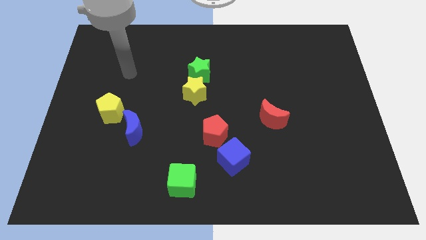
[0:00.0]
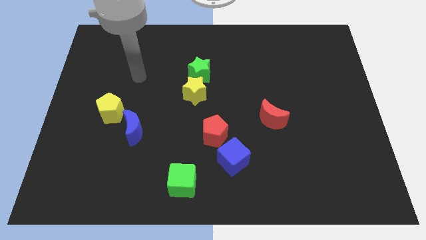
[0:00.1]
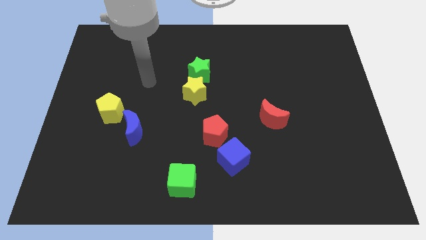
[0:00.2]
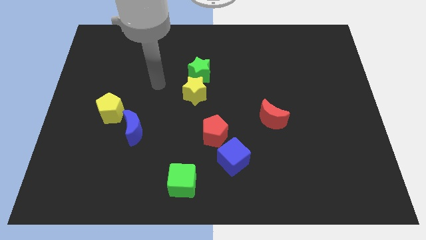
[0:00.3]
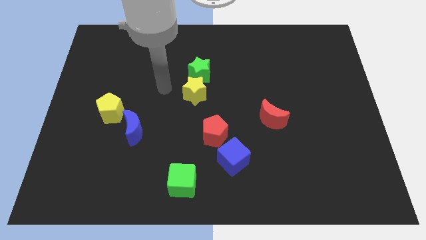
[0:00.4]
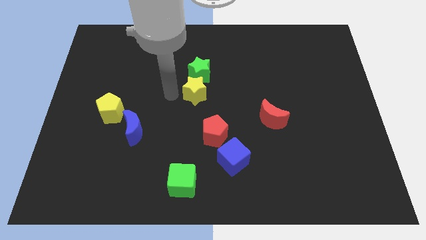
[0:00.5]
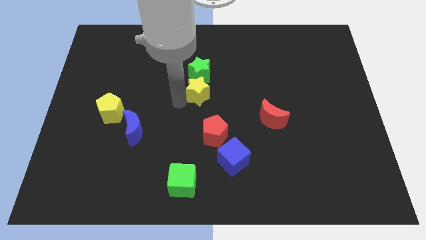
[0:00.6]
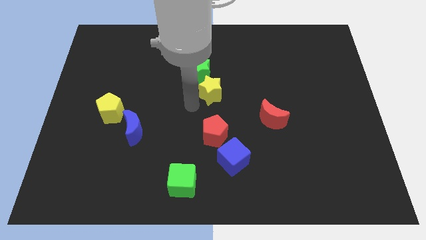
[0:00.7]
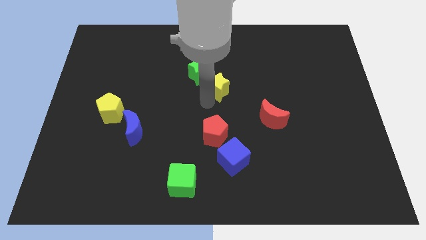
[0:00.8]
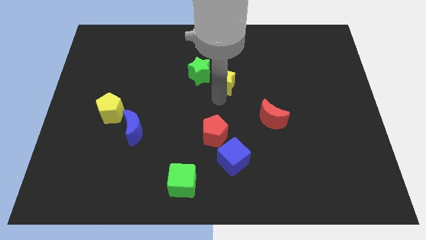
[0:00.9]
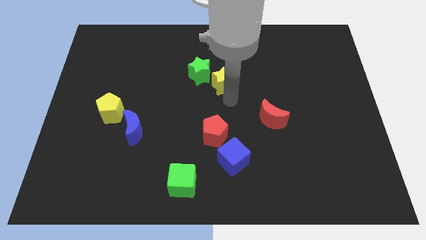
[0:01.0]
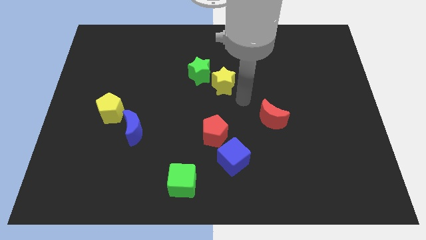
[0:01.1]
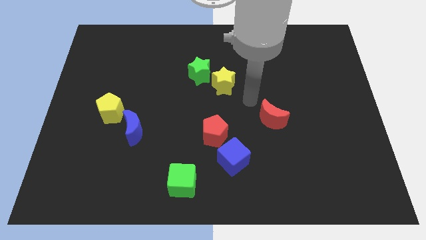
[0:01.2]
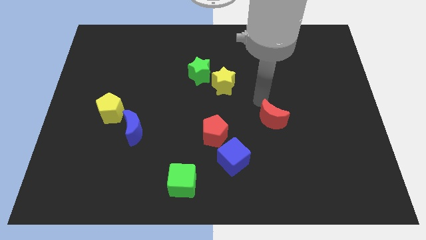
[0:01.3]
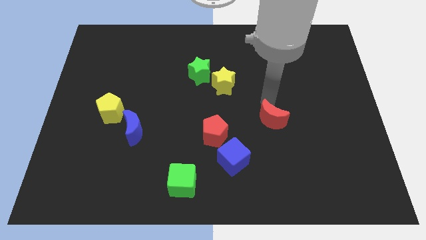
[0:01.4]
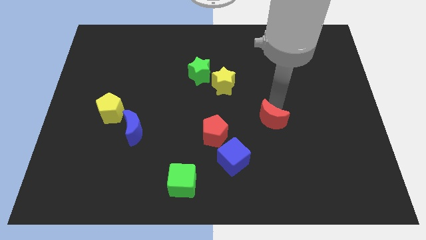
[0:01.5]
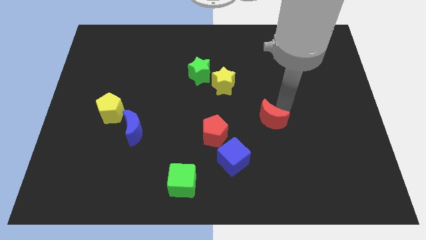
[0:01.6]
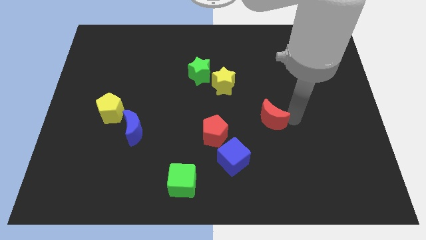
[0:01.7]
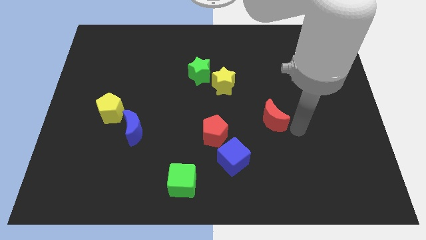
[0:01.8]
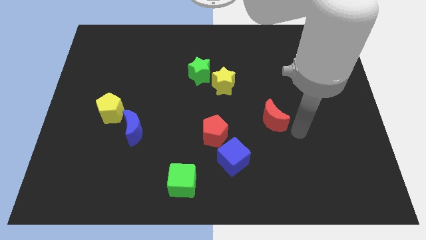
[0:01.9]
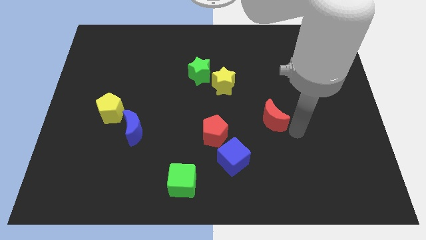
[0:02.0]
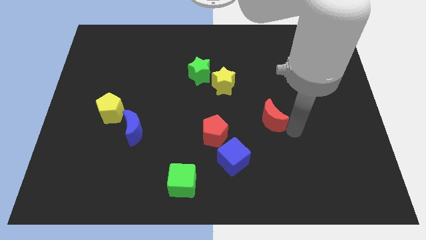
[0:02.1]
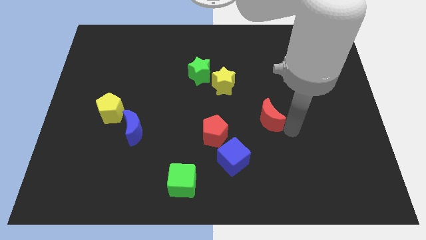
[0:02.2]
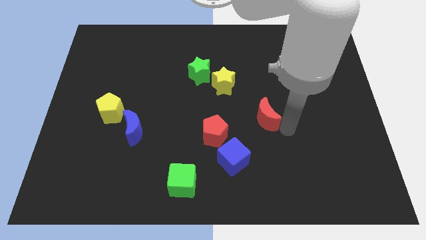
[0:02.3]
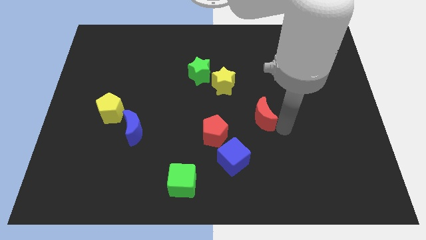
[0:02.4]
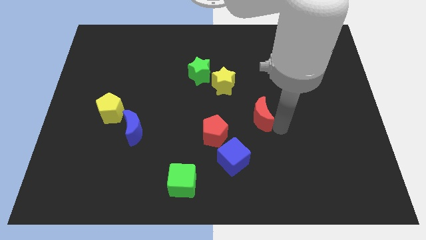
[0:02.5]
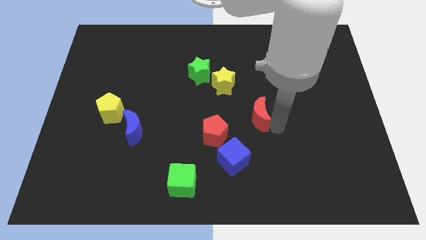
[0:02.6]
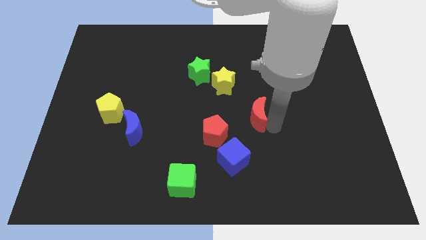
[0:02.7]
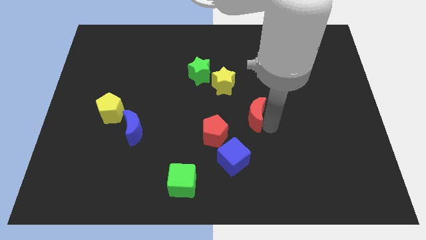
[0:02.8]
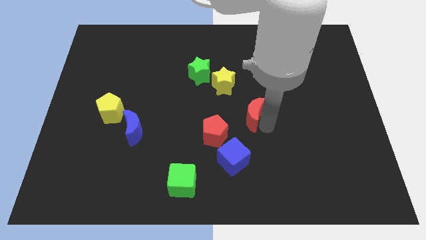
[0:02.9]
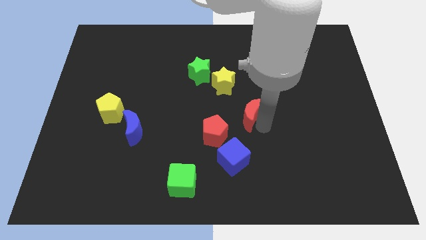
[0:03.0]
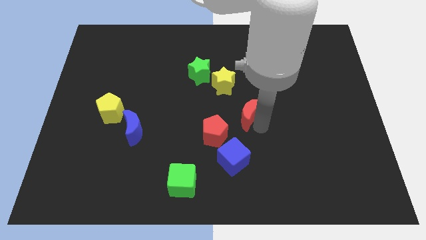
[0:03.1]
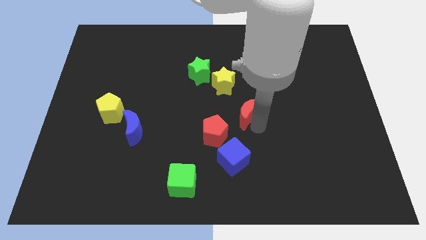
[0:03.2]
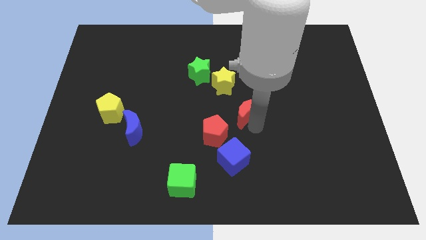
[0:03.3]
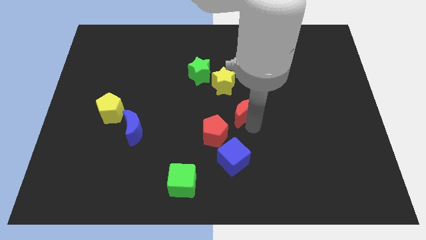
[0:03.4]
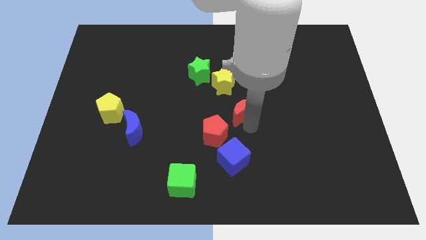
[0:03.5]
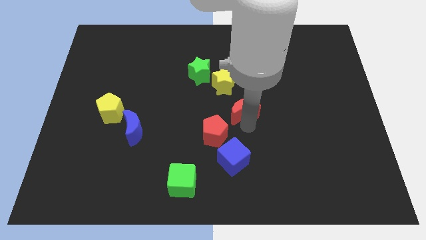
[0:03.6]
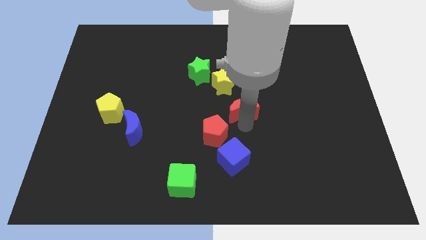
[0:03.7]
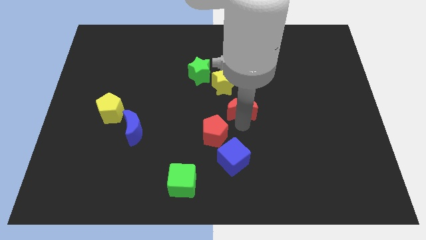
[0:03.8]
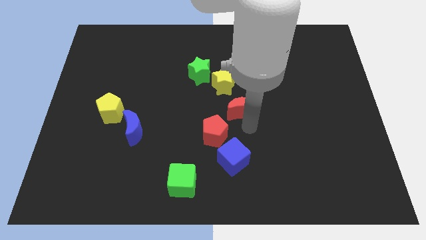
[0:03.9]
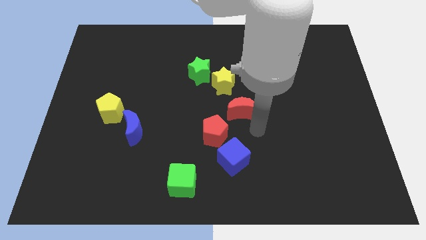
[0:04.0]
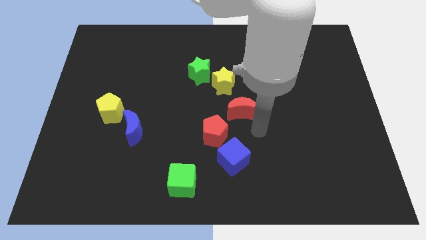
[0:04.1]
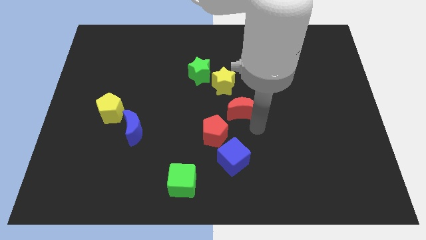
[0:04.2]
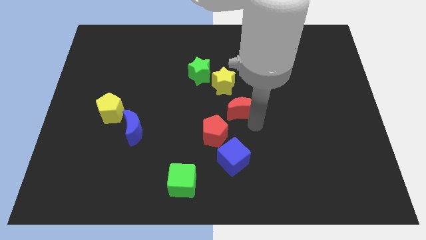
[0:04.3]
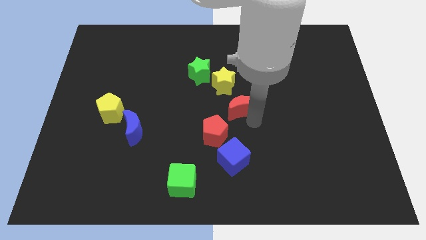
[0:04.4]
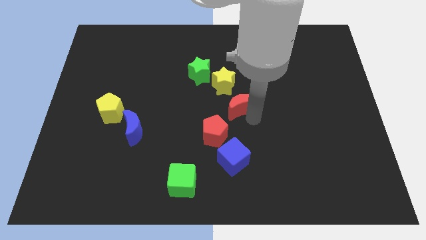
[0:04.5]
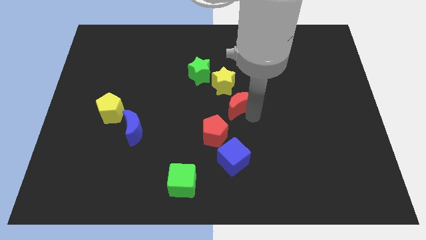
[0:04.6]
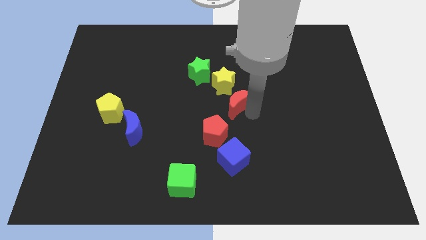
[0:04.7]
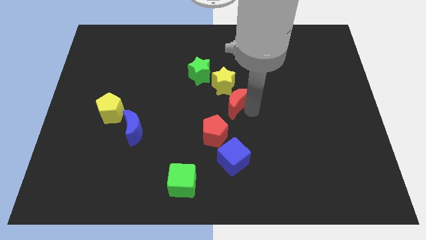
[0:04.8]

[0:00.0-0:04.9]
put the red moon diagonally down and to the right of the green star

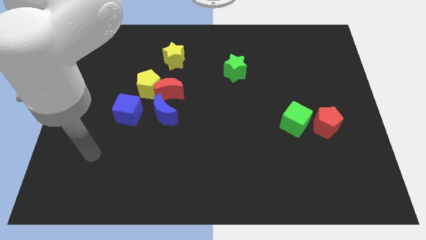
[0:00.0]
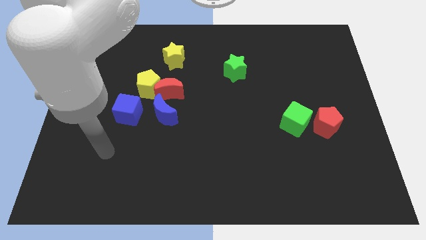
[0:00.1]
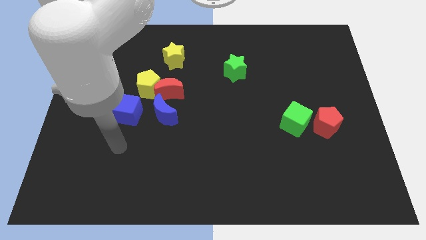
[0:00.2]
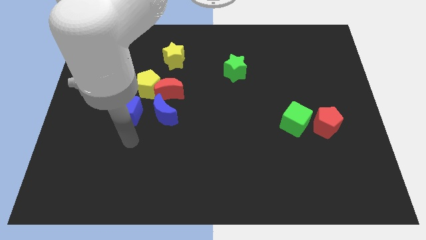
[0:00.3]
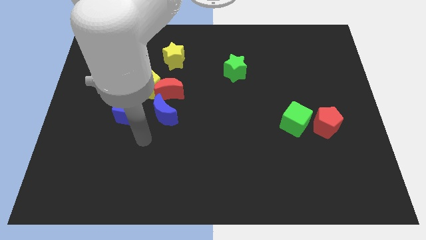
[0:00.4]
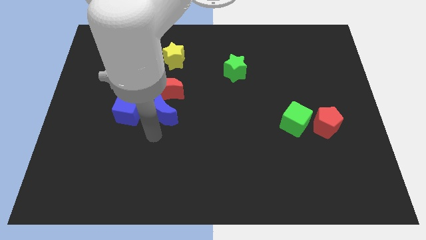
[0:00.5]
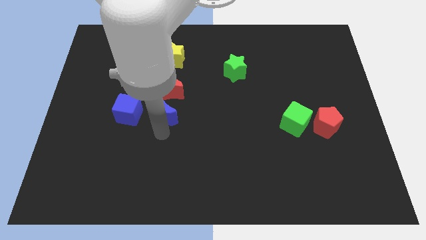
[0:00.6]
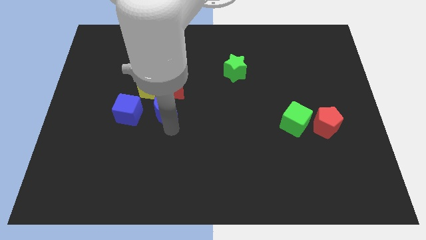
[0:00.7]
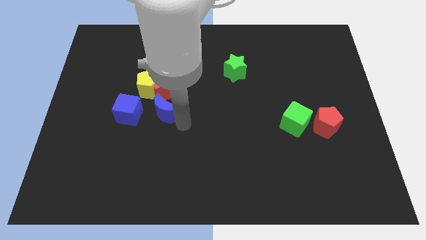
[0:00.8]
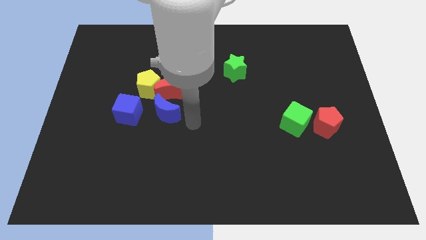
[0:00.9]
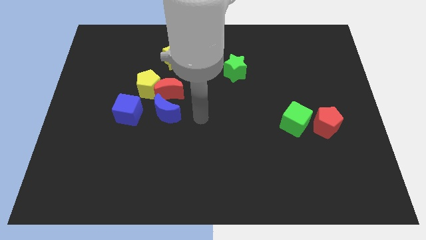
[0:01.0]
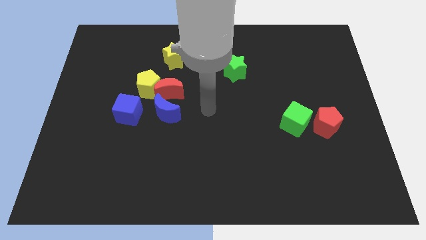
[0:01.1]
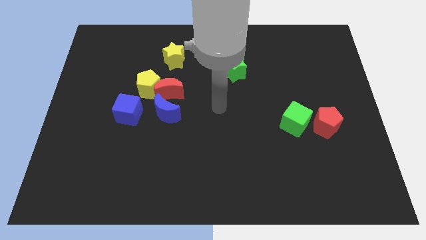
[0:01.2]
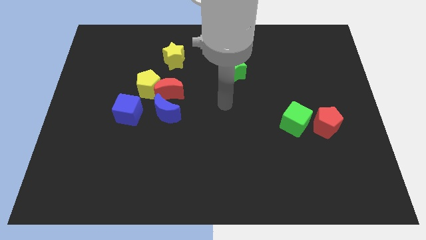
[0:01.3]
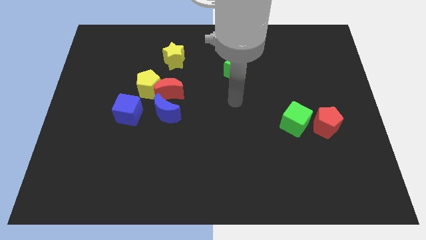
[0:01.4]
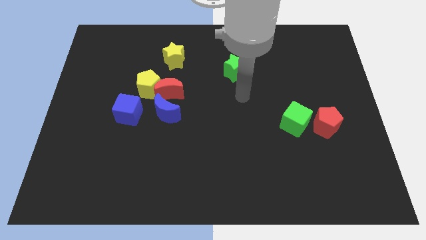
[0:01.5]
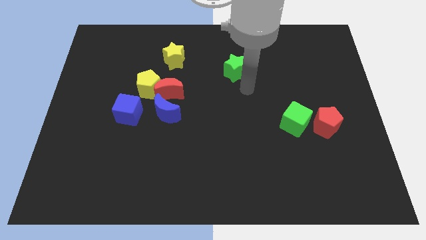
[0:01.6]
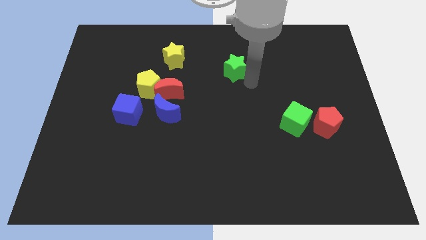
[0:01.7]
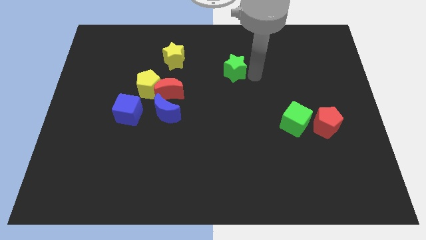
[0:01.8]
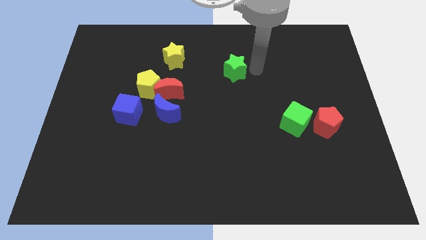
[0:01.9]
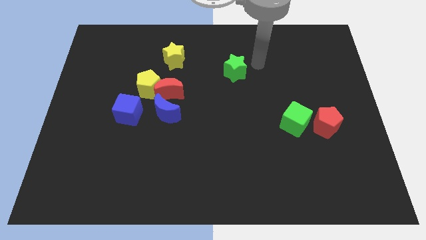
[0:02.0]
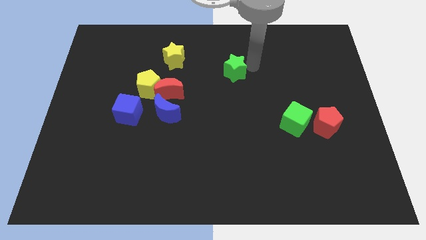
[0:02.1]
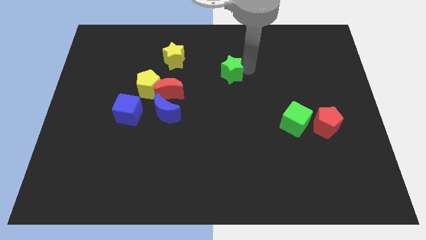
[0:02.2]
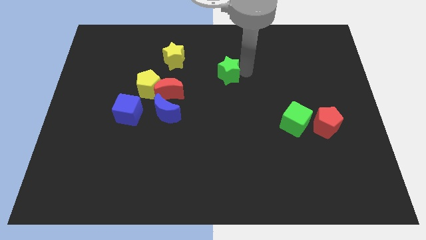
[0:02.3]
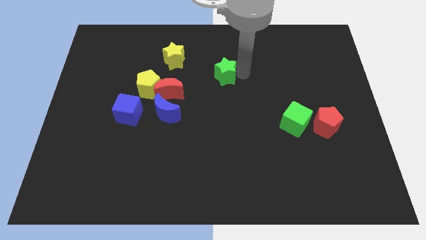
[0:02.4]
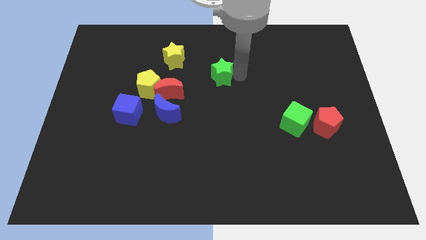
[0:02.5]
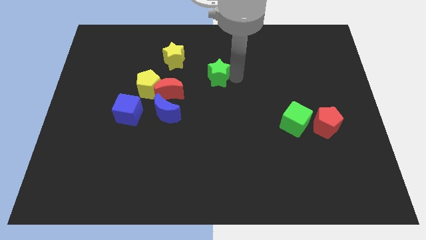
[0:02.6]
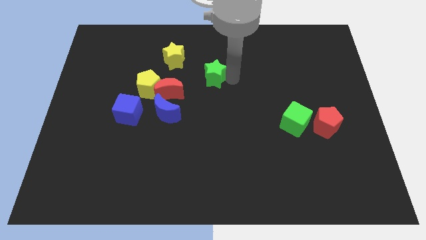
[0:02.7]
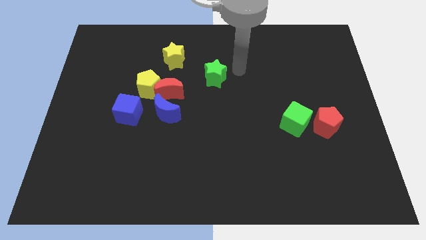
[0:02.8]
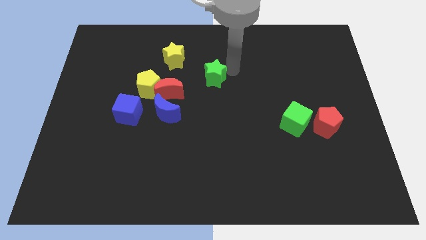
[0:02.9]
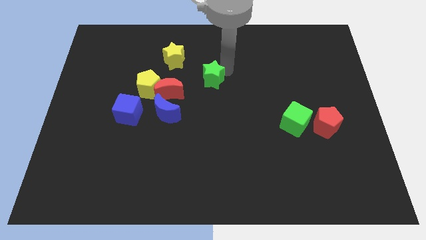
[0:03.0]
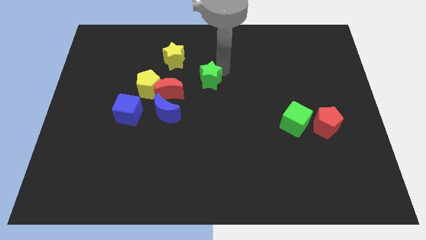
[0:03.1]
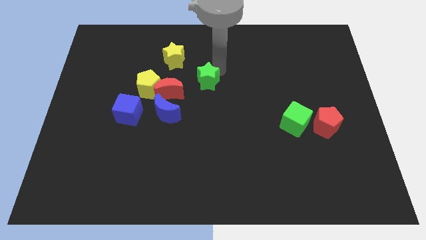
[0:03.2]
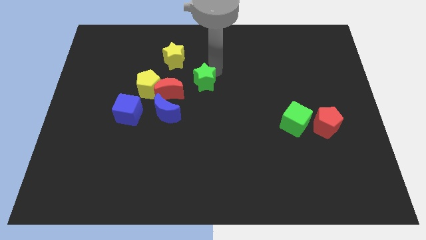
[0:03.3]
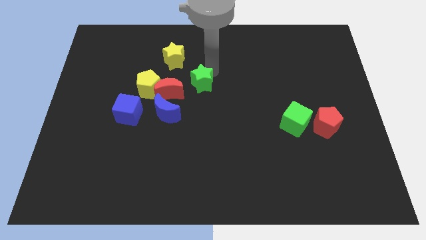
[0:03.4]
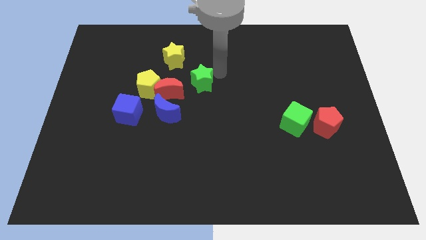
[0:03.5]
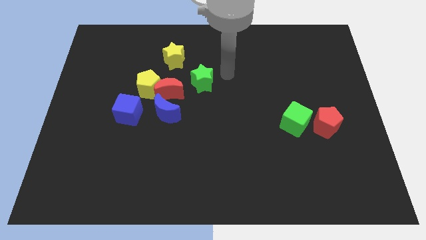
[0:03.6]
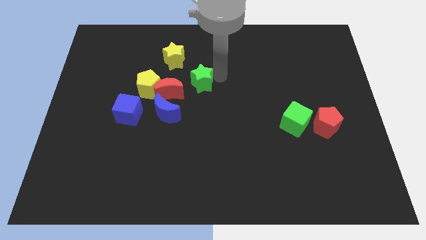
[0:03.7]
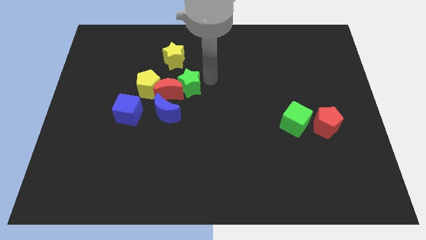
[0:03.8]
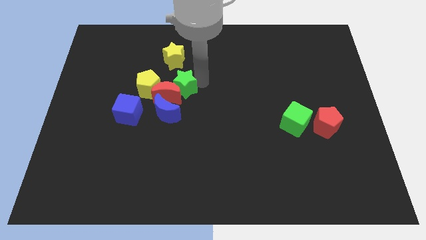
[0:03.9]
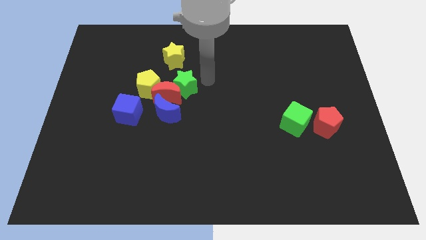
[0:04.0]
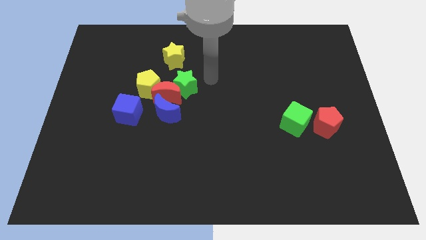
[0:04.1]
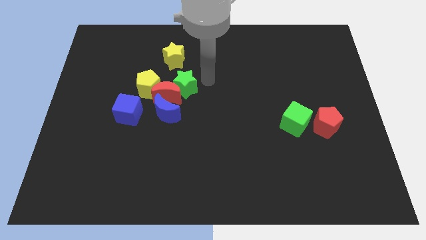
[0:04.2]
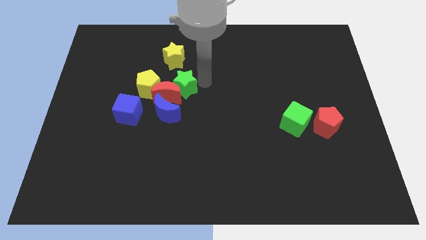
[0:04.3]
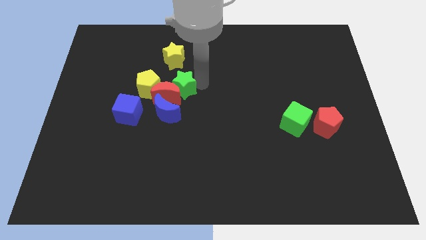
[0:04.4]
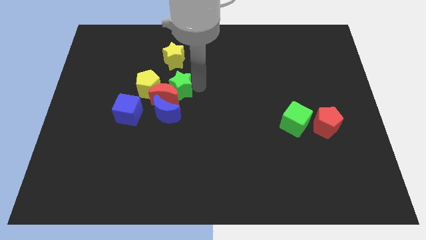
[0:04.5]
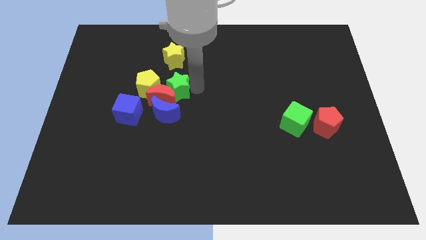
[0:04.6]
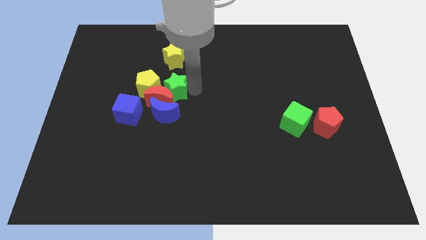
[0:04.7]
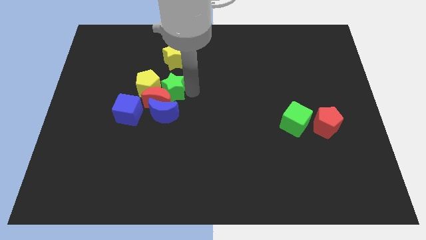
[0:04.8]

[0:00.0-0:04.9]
push the green star to the top right of the blue cube
